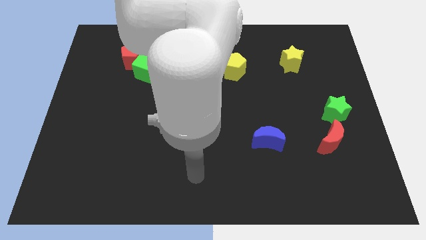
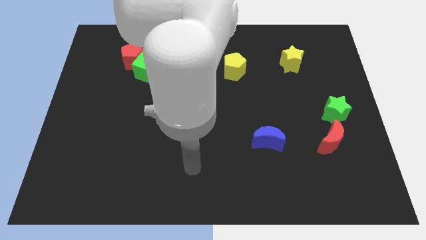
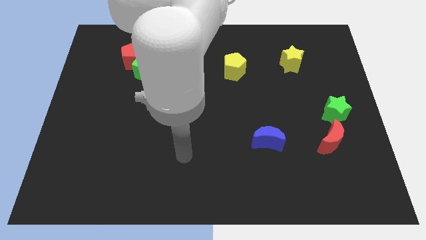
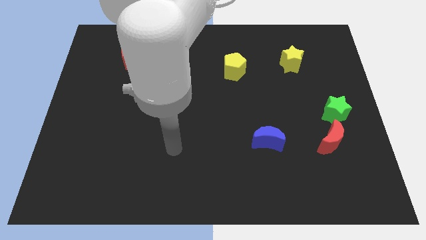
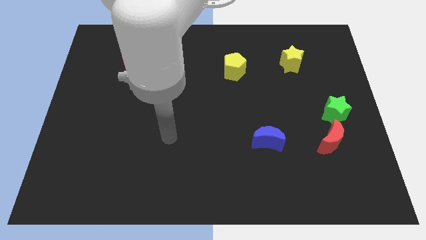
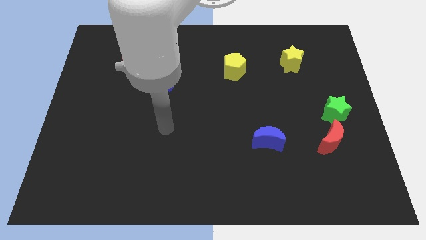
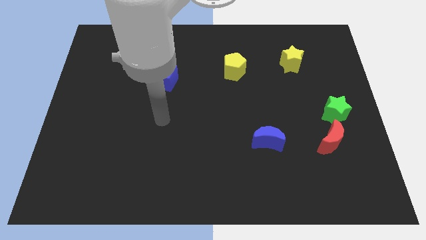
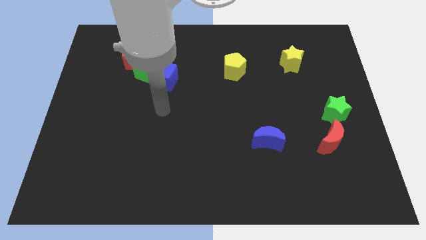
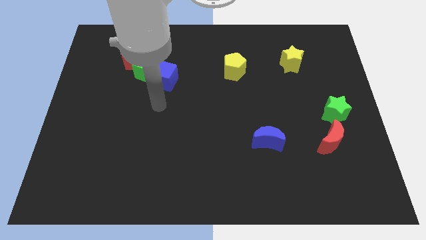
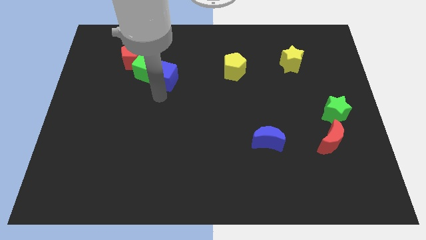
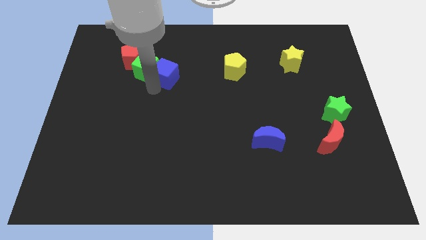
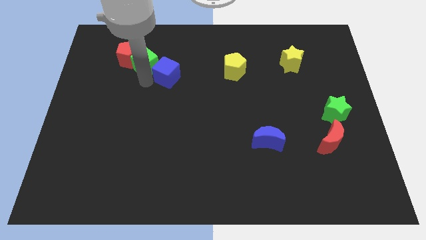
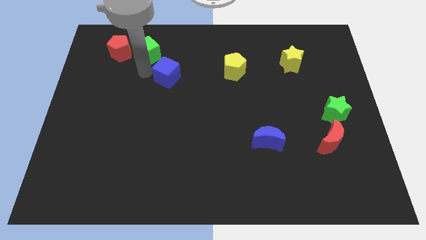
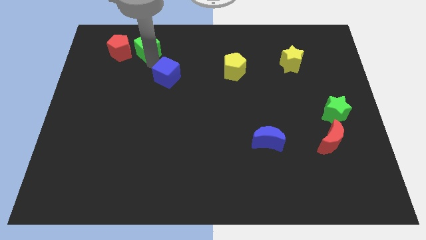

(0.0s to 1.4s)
move the blue cube away from the green cube

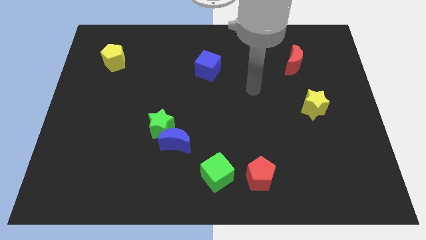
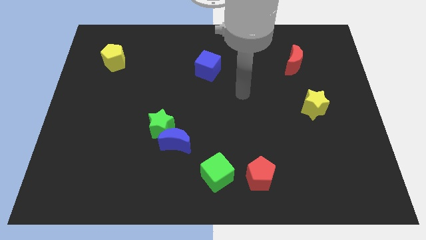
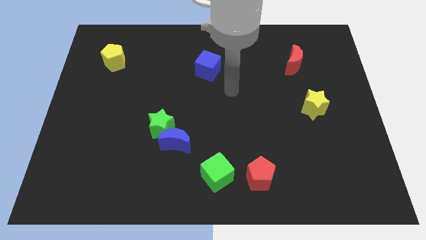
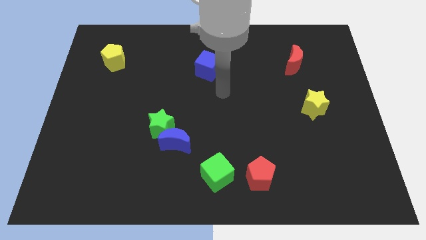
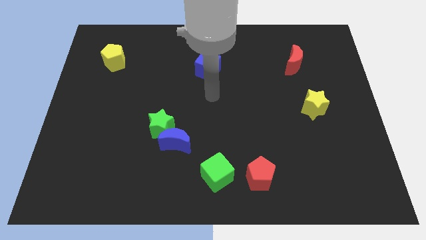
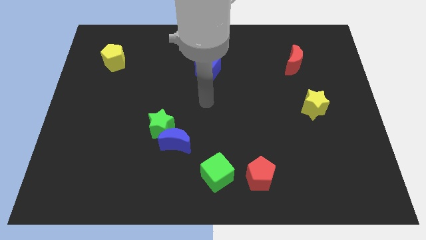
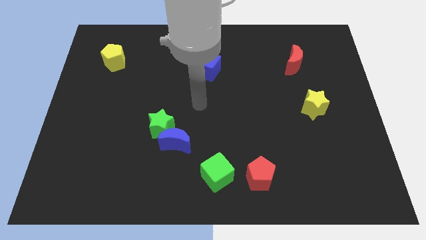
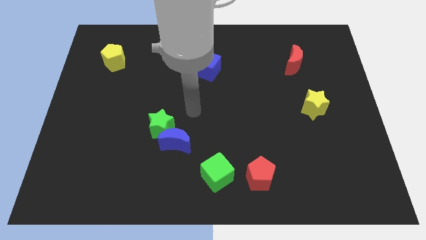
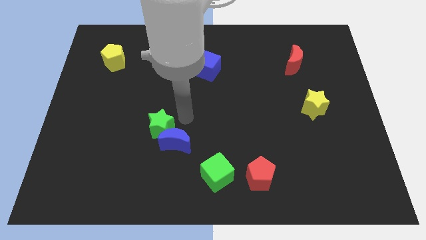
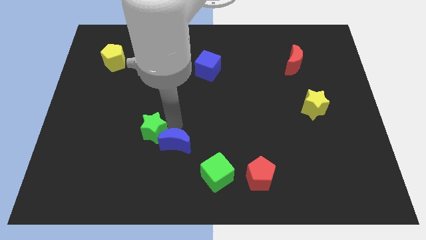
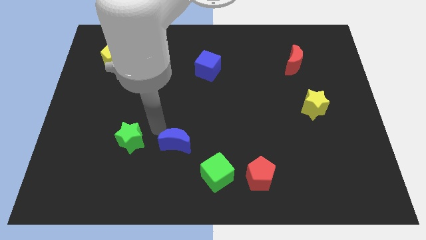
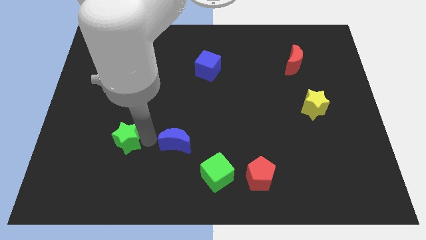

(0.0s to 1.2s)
move the blue moon away from the green star

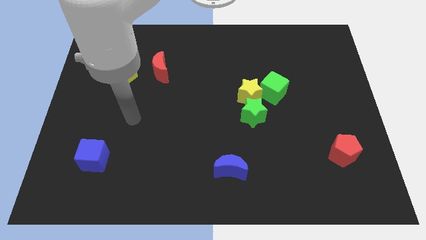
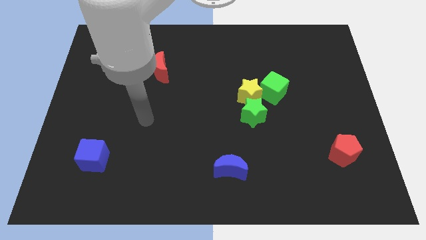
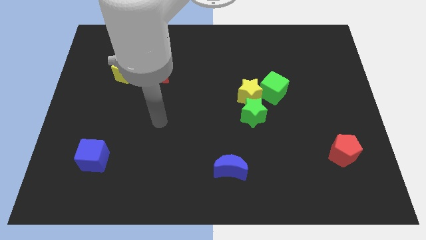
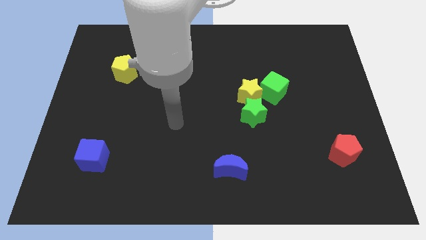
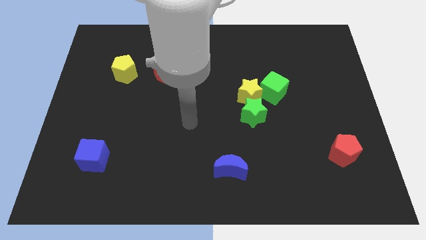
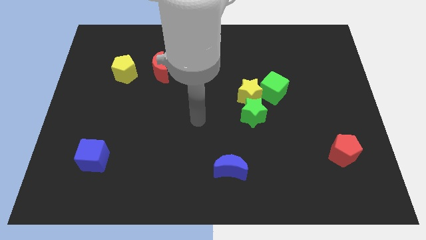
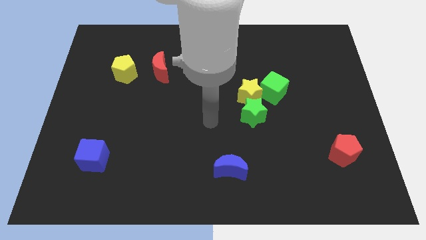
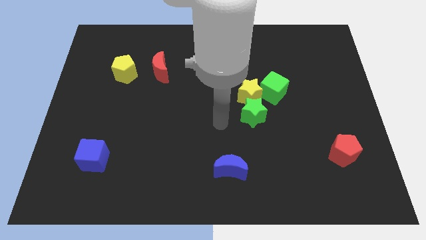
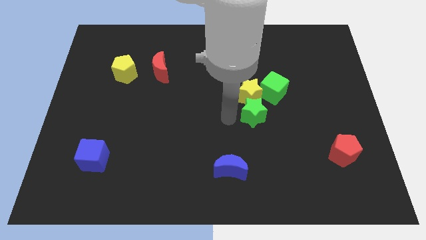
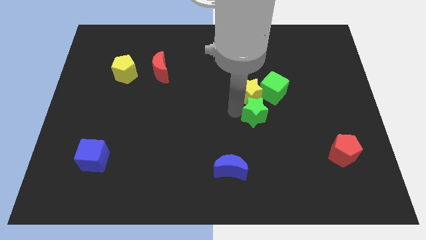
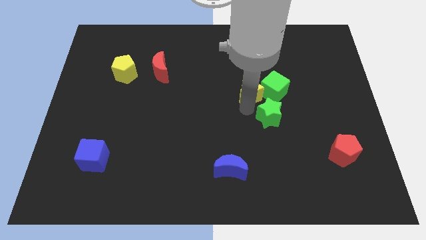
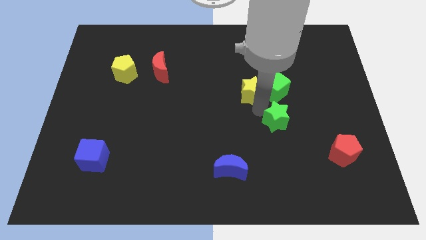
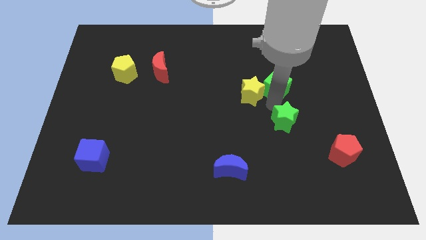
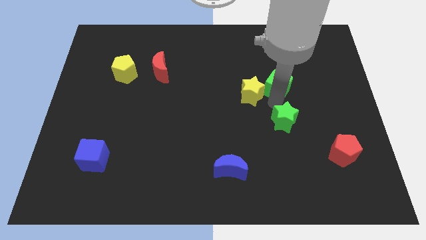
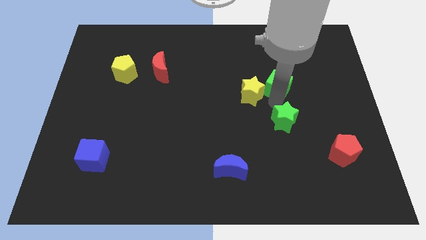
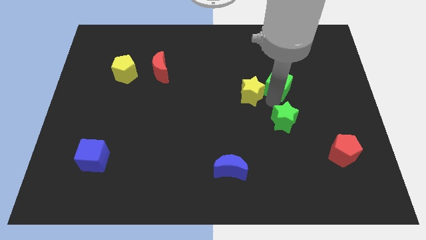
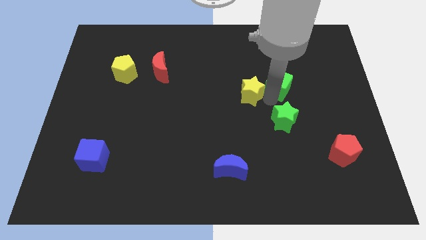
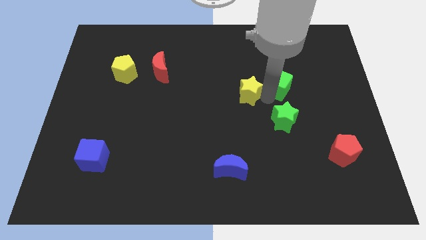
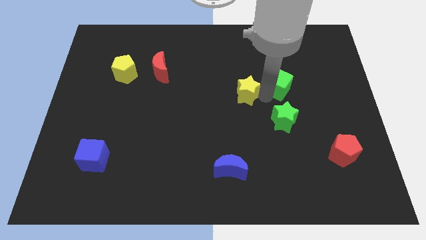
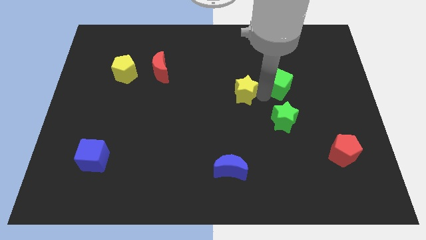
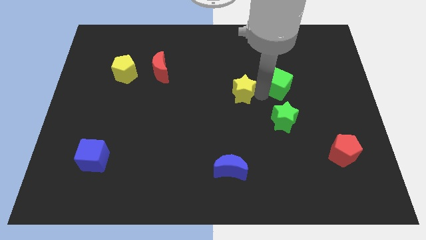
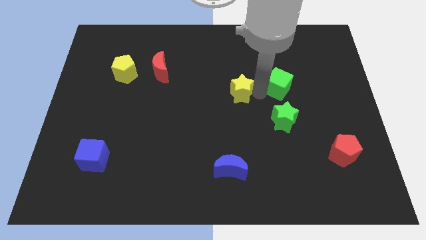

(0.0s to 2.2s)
separate the yellow star from the green cube and green star

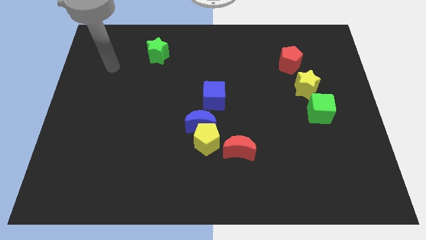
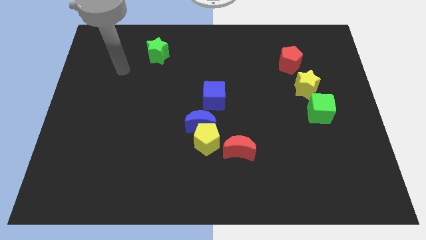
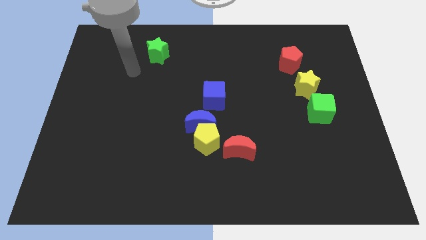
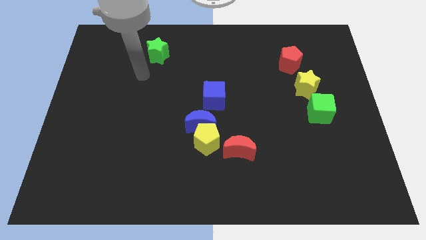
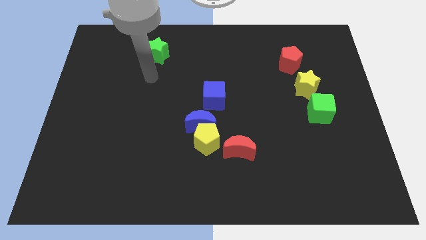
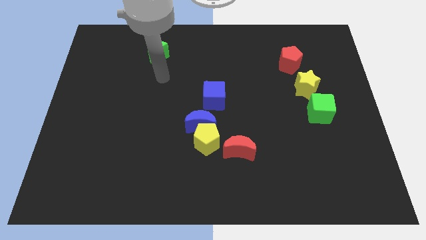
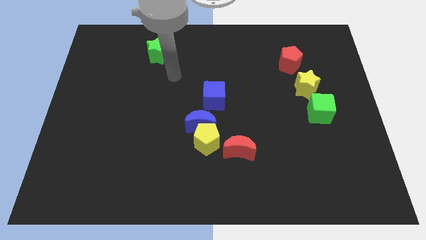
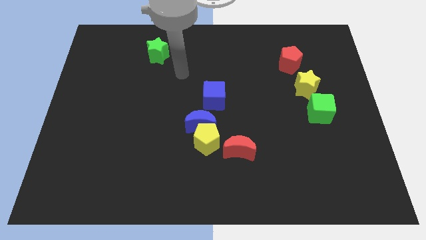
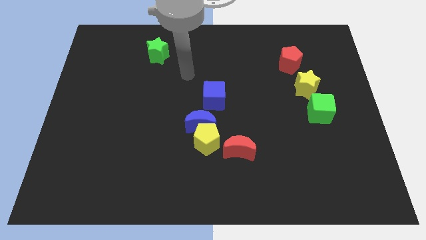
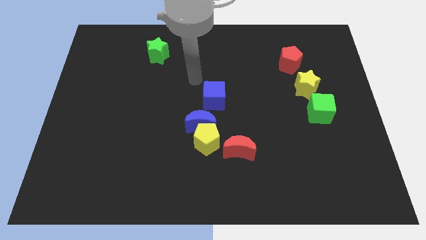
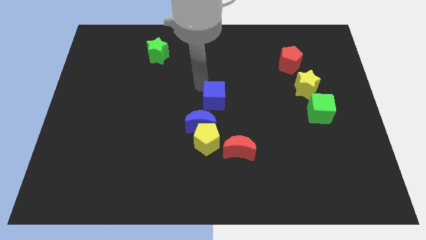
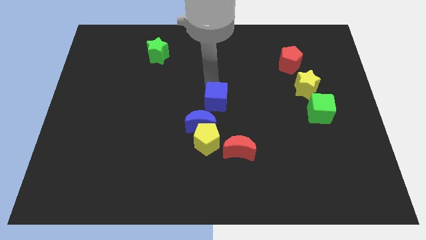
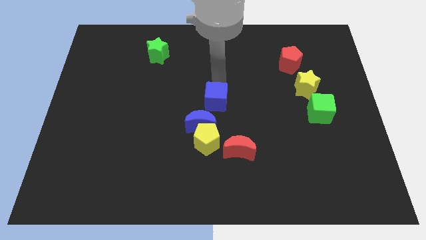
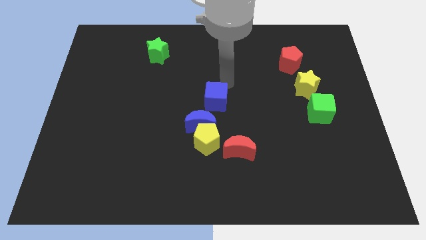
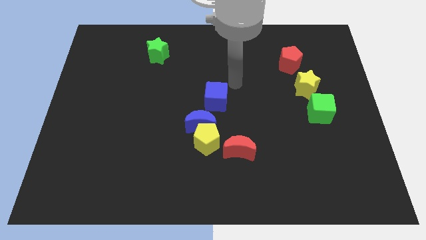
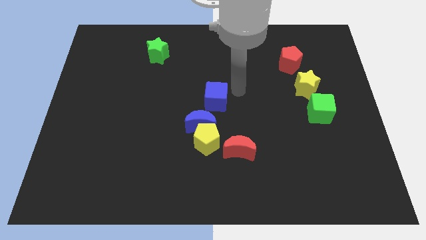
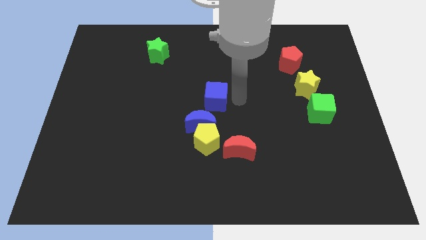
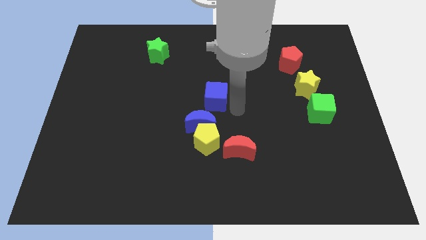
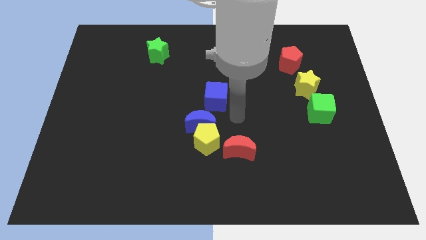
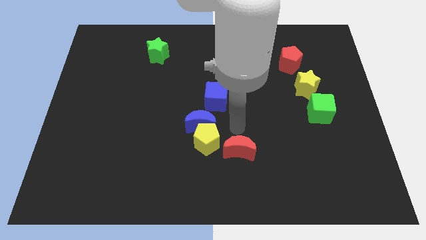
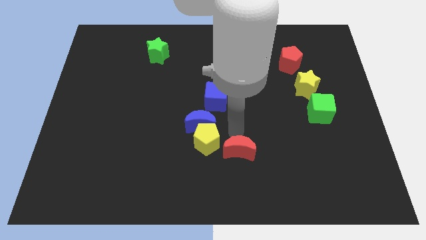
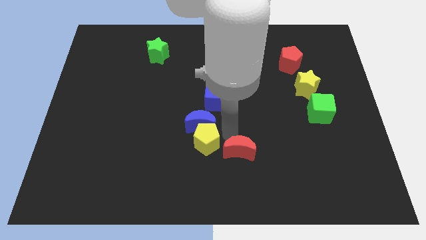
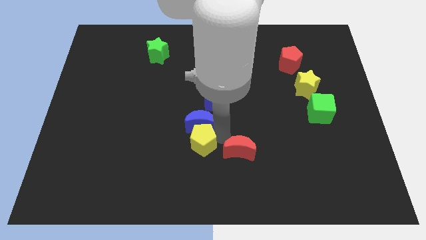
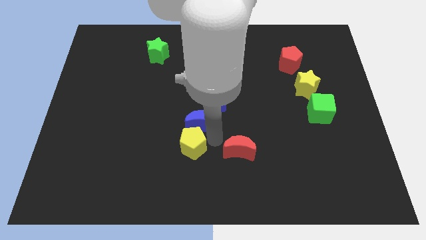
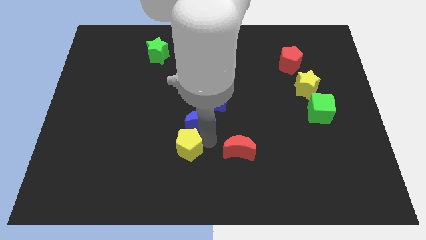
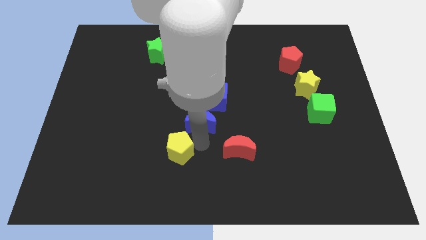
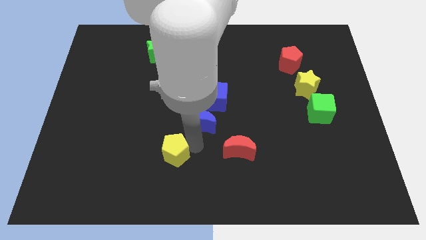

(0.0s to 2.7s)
separate the yellow pentagon from the blue moon and red moon

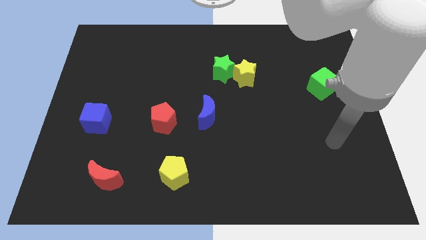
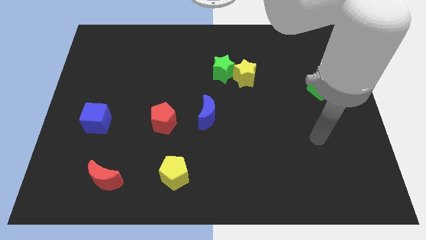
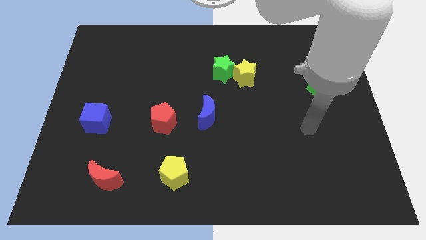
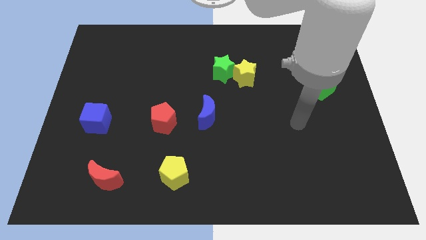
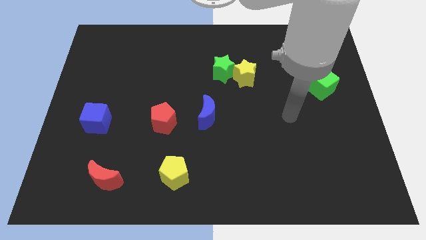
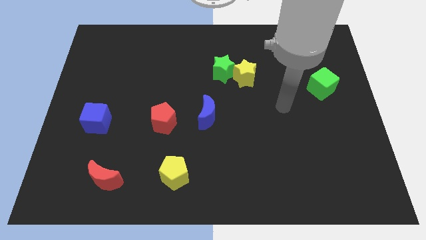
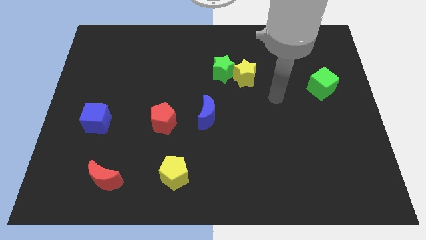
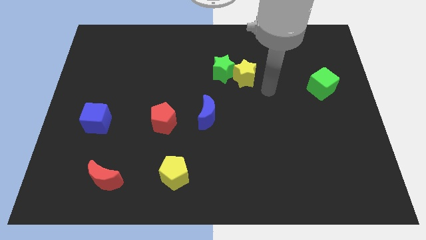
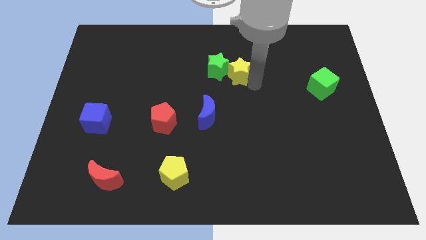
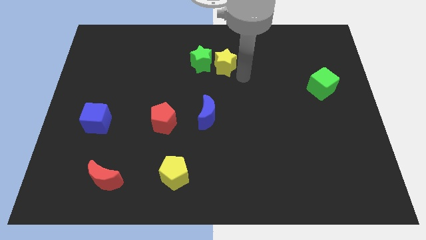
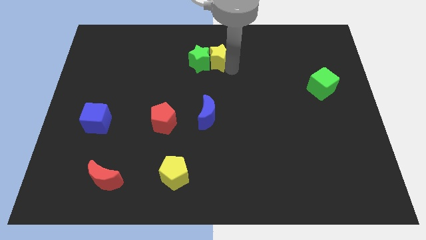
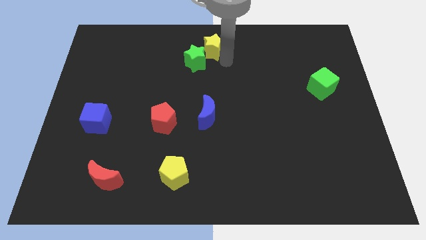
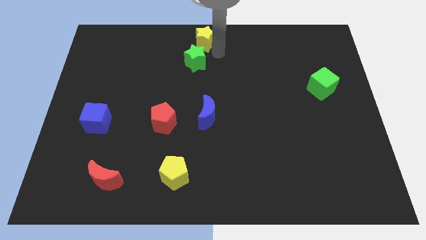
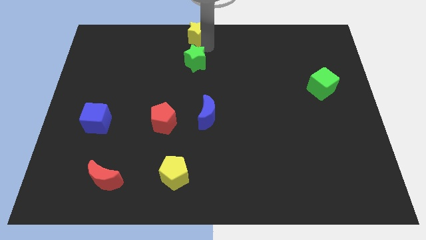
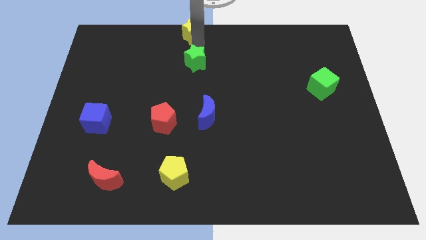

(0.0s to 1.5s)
move the green star away from the yellow star

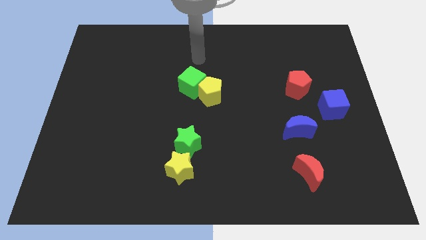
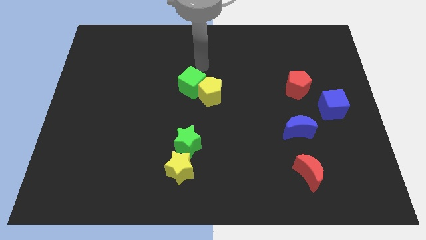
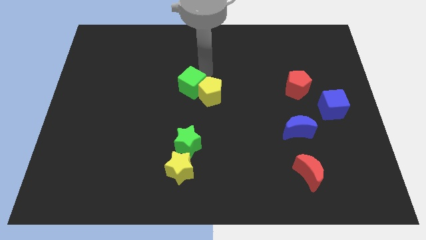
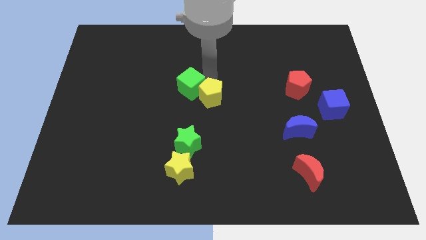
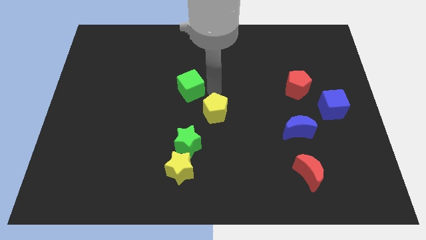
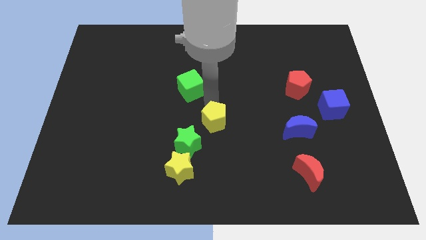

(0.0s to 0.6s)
separate the green cube from the yellow pentagon
